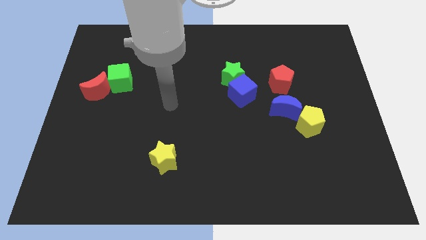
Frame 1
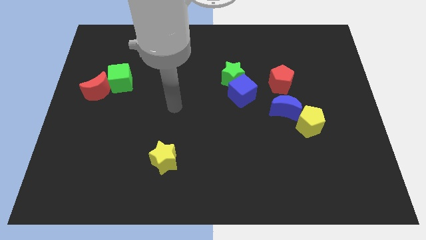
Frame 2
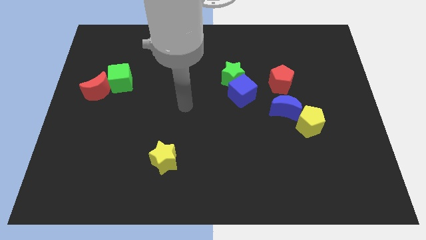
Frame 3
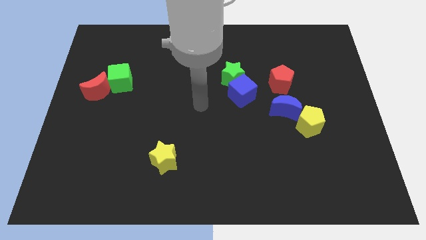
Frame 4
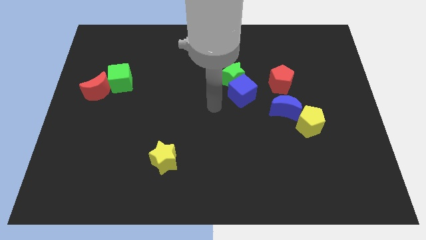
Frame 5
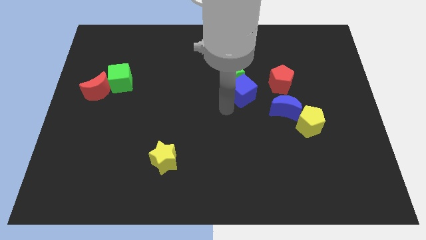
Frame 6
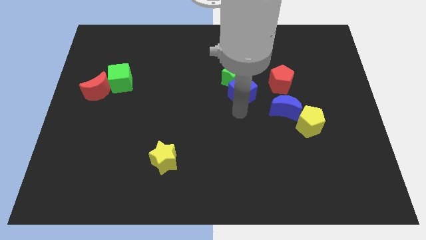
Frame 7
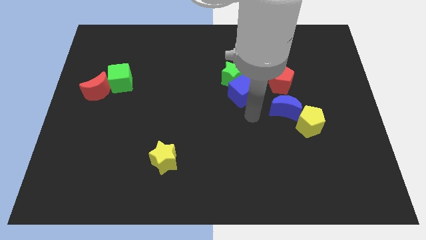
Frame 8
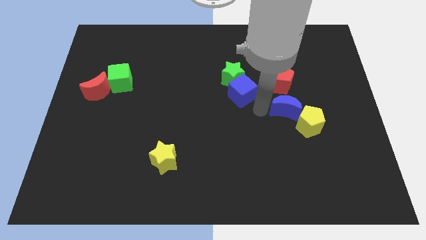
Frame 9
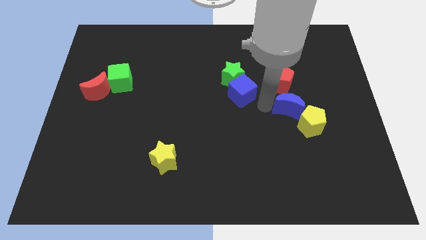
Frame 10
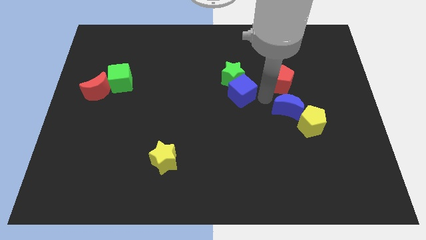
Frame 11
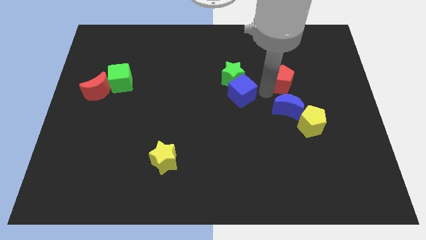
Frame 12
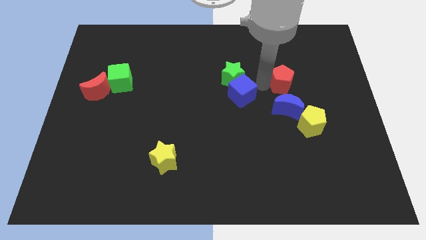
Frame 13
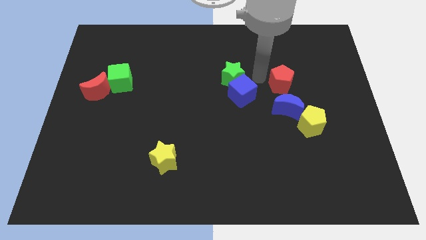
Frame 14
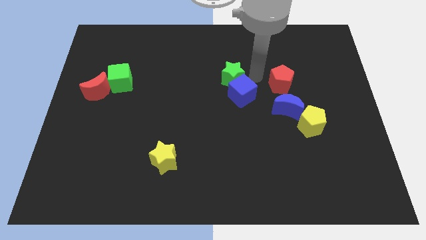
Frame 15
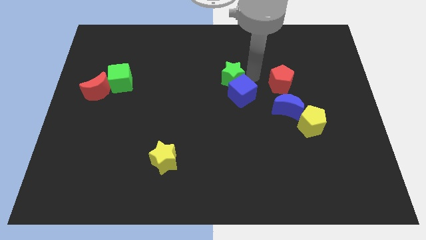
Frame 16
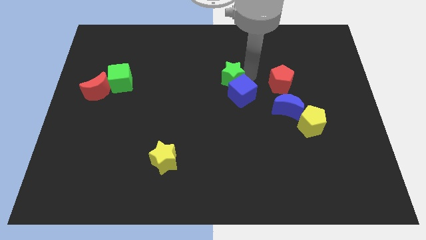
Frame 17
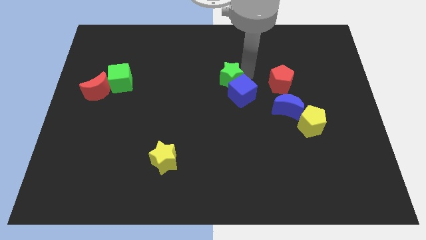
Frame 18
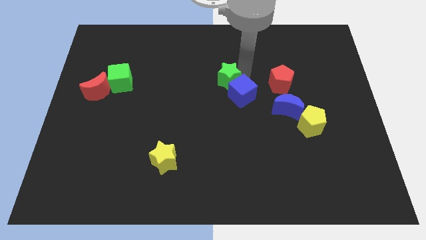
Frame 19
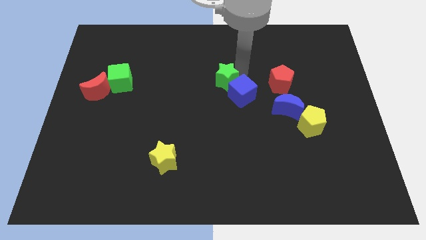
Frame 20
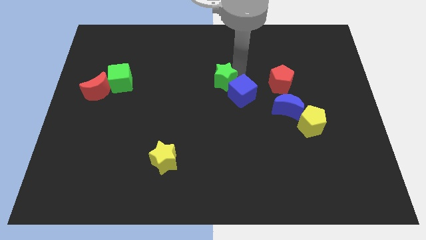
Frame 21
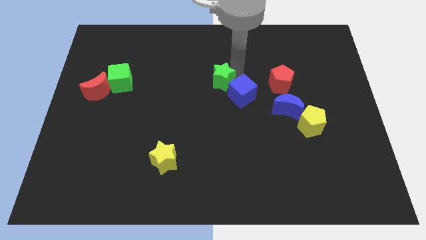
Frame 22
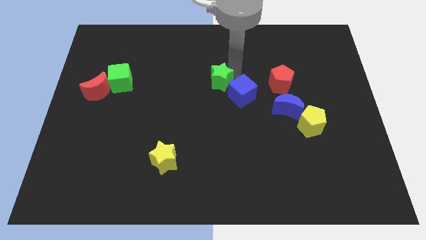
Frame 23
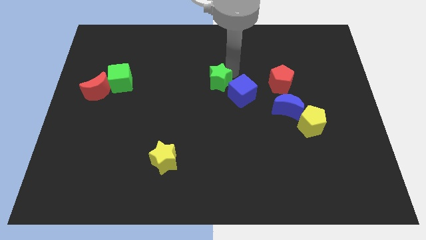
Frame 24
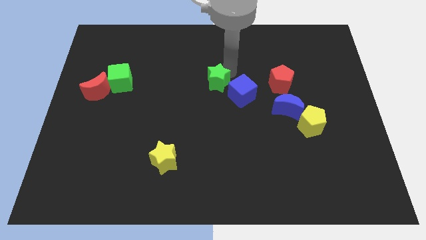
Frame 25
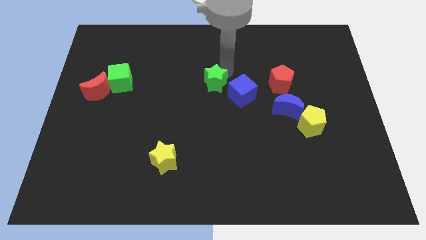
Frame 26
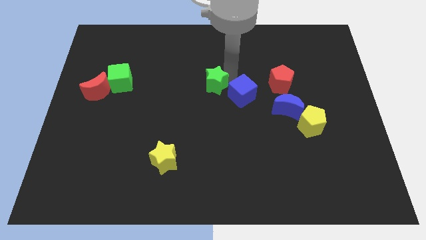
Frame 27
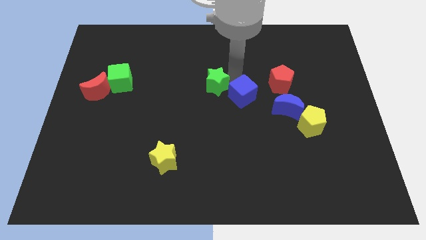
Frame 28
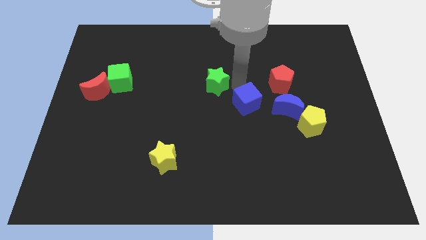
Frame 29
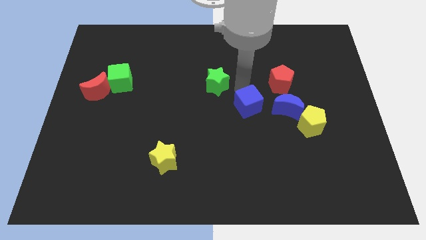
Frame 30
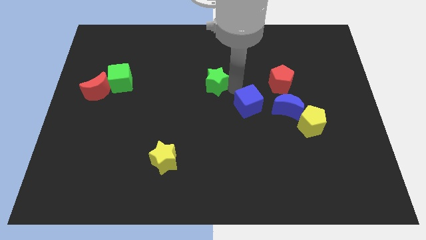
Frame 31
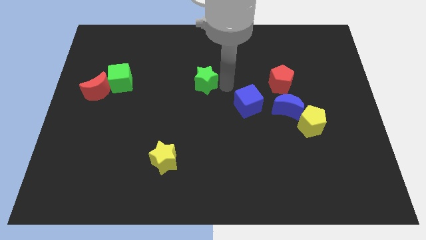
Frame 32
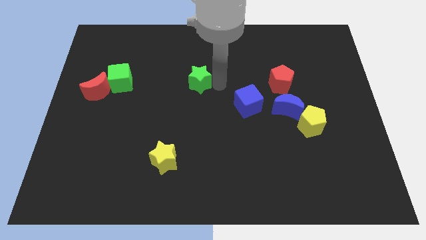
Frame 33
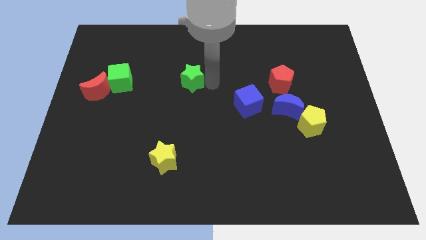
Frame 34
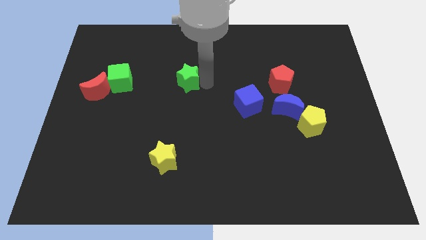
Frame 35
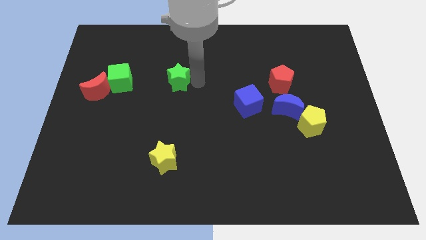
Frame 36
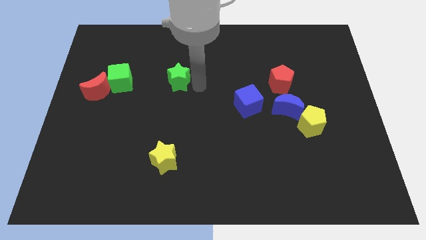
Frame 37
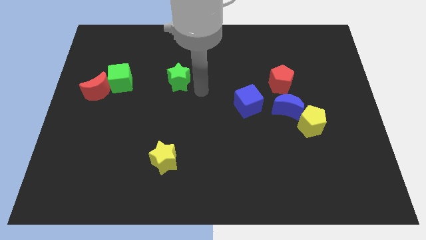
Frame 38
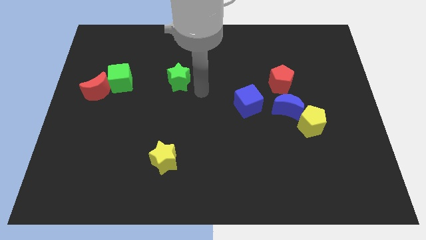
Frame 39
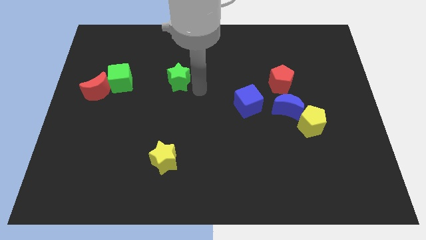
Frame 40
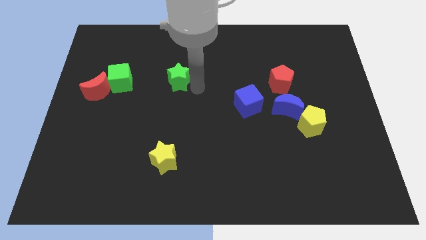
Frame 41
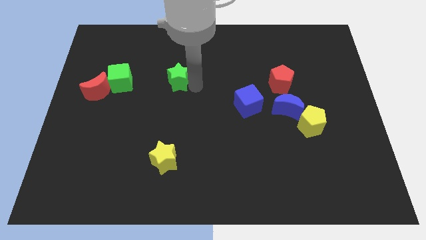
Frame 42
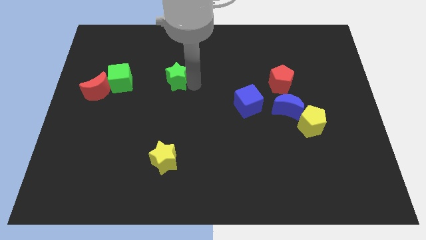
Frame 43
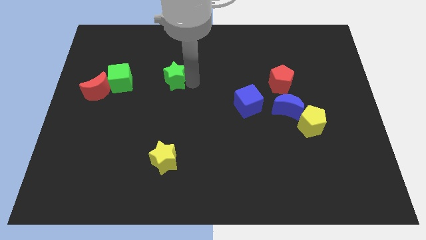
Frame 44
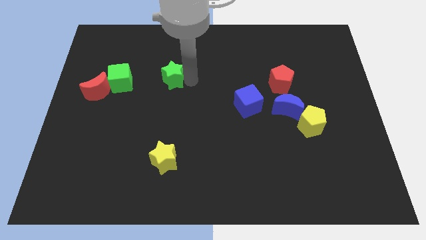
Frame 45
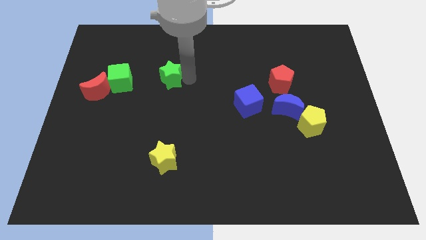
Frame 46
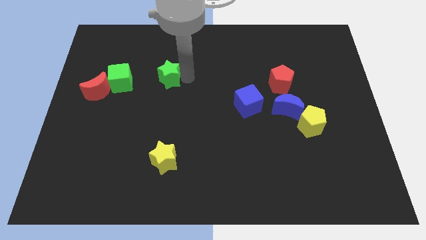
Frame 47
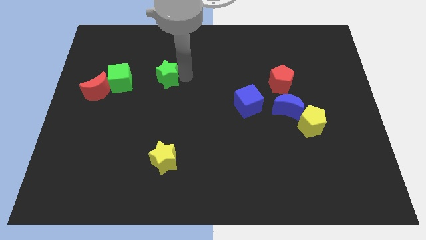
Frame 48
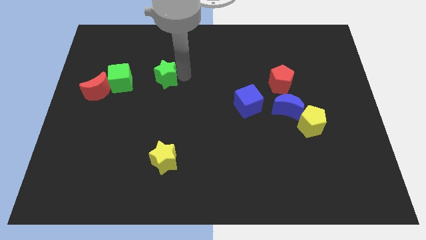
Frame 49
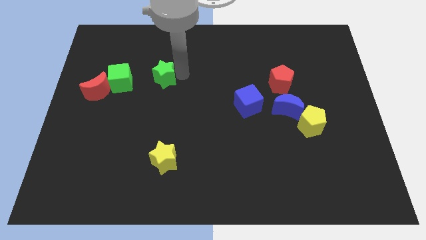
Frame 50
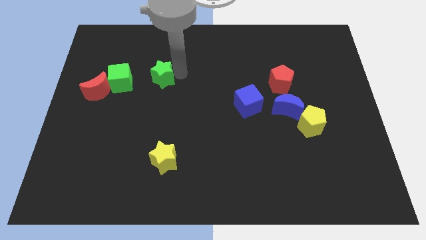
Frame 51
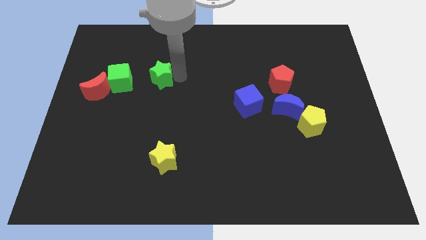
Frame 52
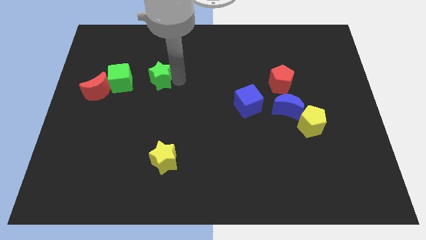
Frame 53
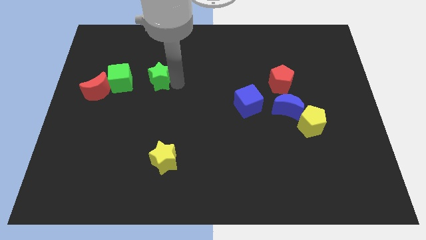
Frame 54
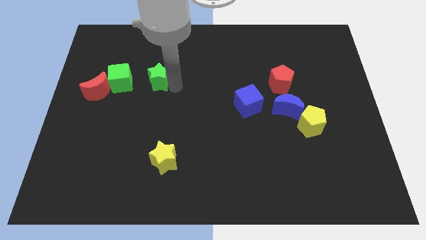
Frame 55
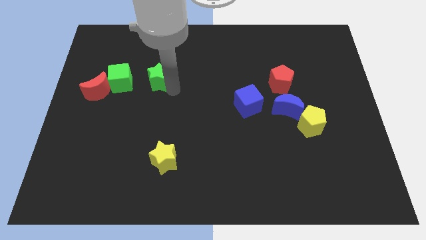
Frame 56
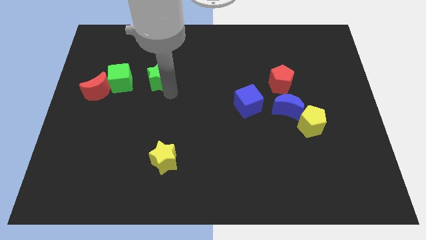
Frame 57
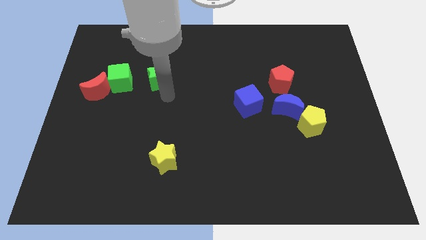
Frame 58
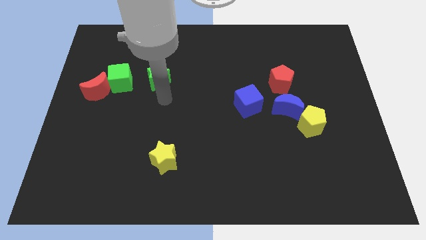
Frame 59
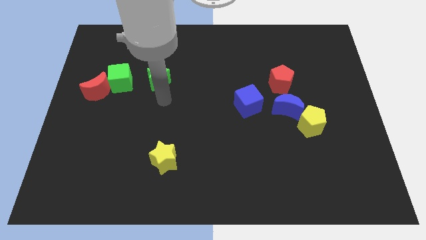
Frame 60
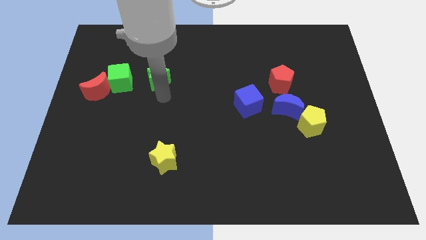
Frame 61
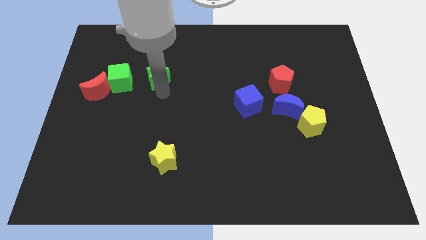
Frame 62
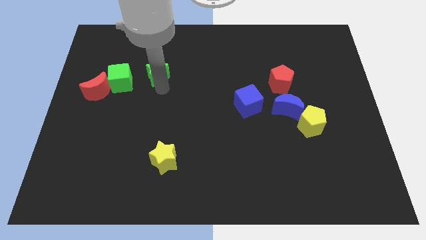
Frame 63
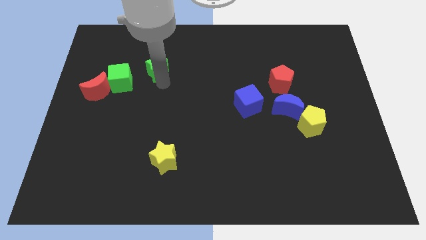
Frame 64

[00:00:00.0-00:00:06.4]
put the green star to the top right side of the green cube
